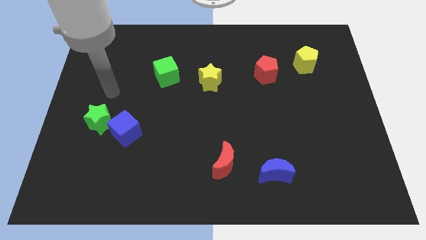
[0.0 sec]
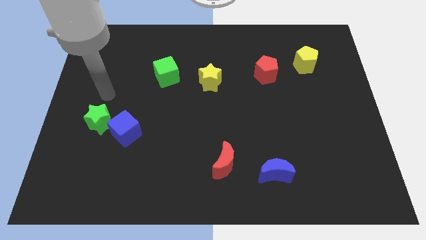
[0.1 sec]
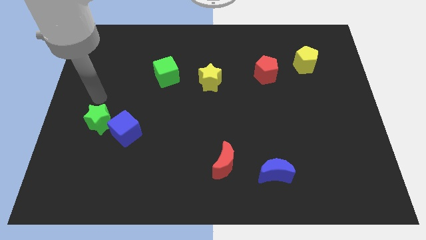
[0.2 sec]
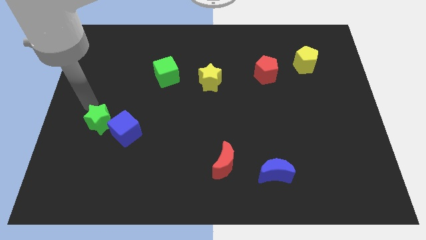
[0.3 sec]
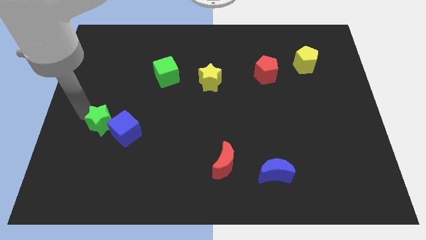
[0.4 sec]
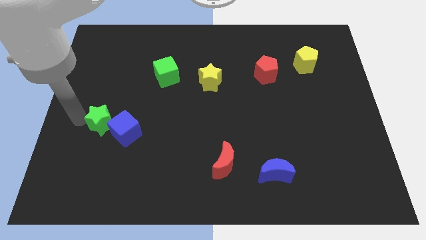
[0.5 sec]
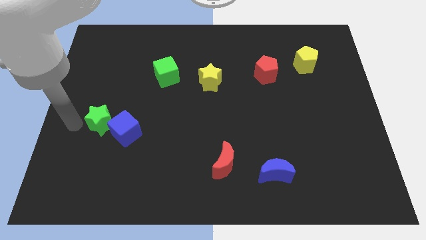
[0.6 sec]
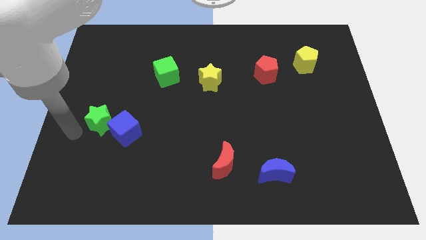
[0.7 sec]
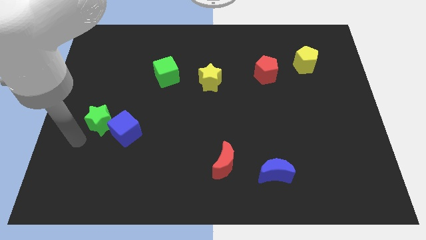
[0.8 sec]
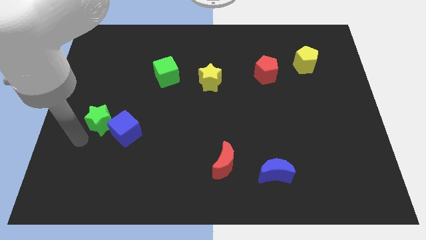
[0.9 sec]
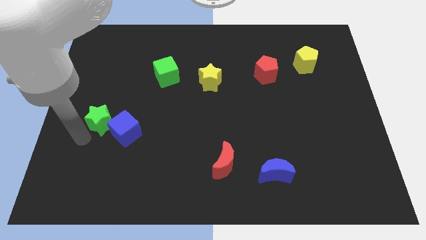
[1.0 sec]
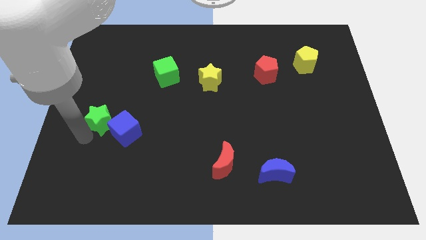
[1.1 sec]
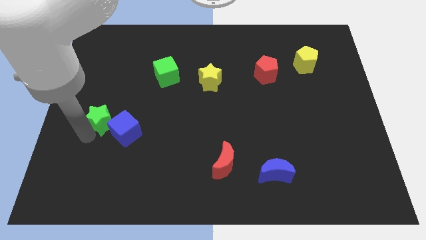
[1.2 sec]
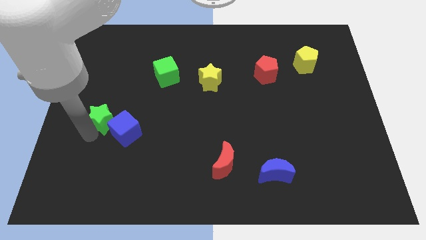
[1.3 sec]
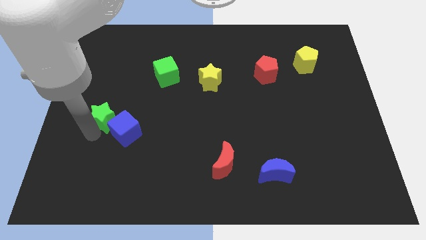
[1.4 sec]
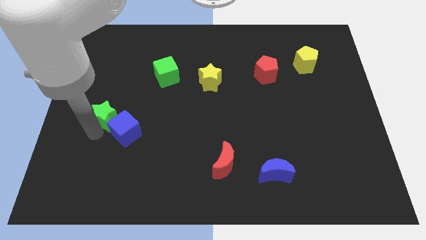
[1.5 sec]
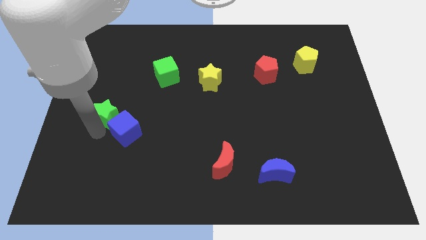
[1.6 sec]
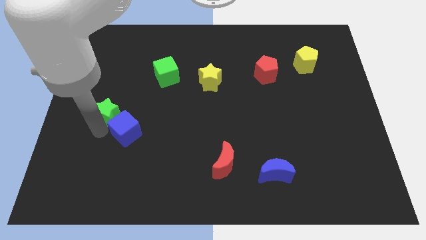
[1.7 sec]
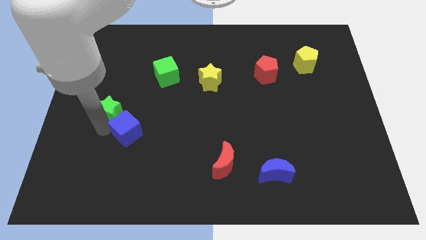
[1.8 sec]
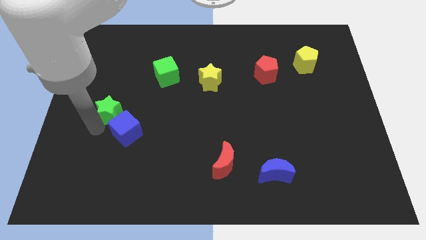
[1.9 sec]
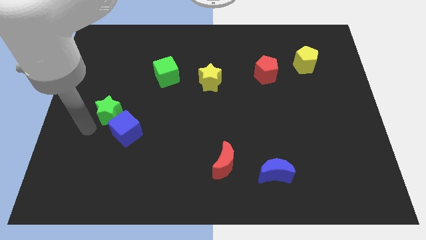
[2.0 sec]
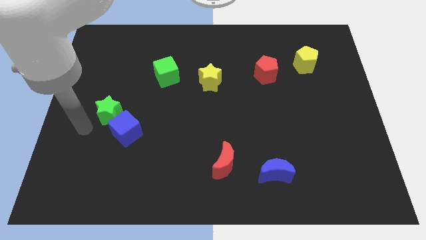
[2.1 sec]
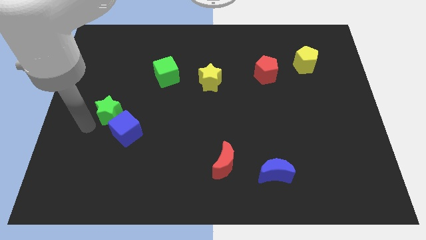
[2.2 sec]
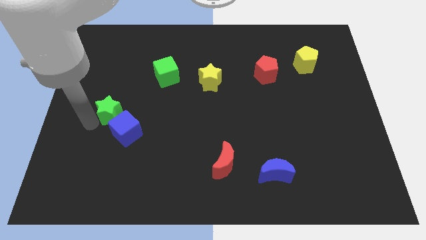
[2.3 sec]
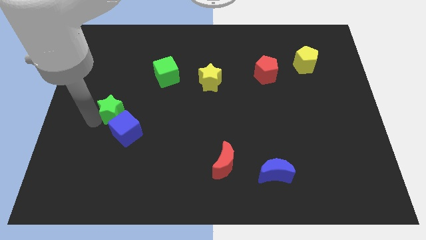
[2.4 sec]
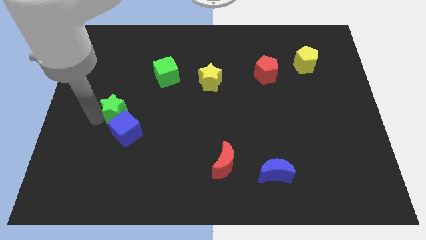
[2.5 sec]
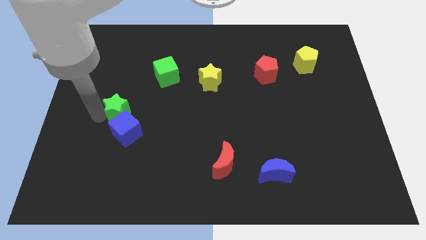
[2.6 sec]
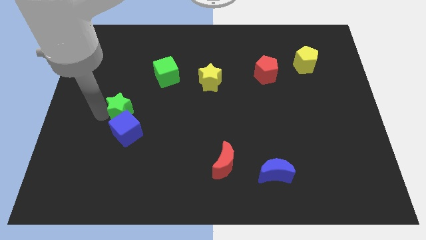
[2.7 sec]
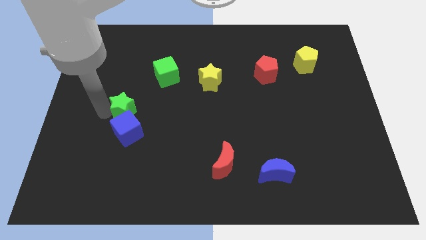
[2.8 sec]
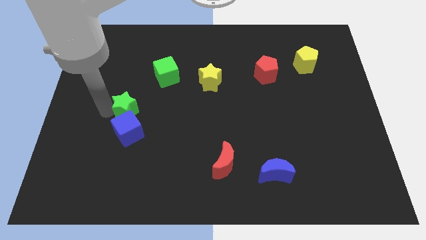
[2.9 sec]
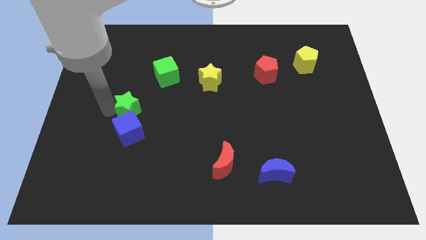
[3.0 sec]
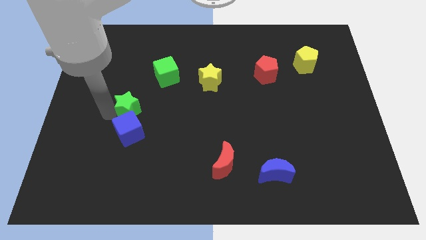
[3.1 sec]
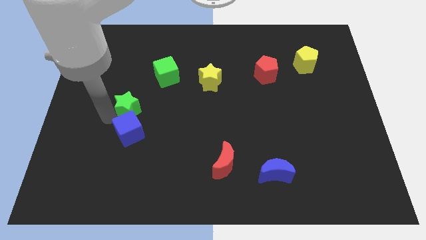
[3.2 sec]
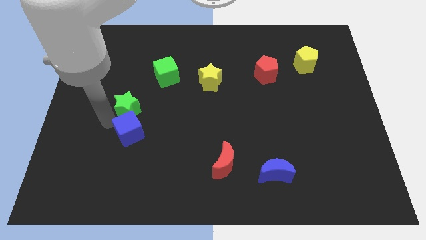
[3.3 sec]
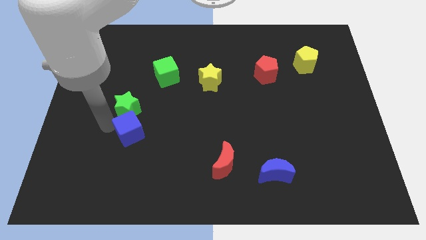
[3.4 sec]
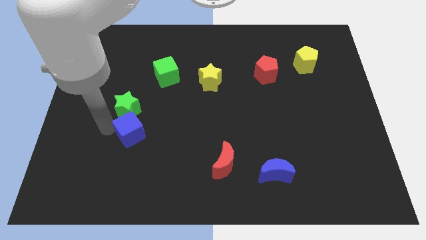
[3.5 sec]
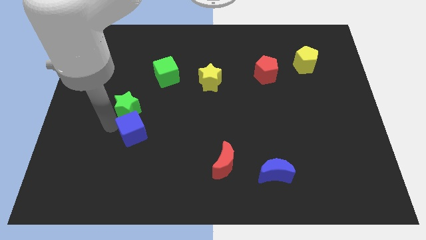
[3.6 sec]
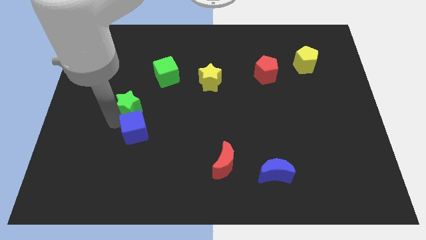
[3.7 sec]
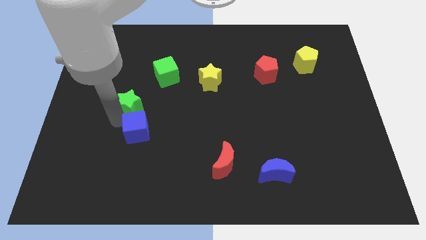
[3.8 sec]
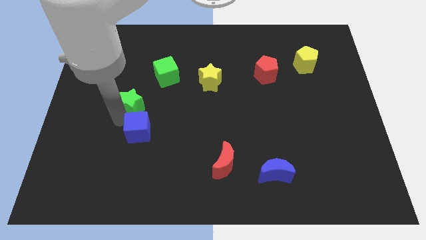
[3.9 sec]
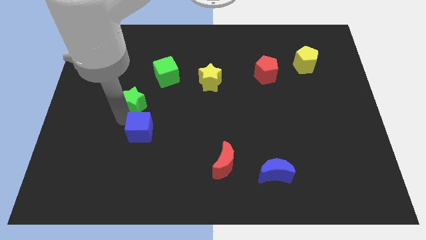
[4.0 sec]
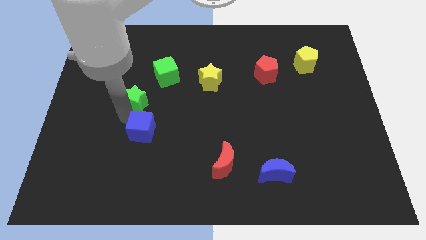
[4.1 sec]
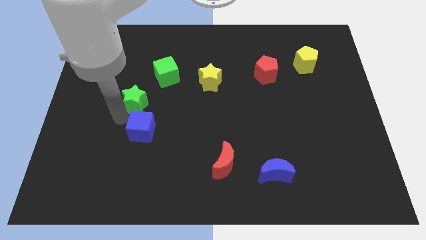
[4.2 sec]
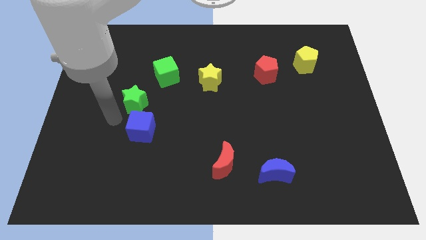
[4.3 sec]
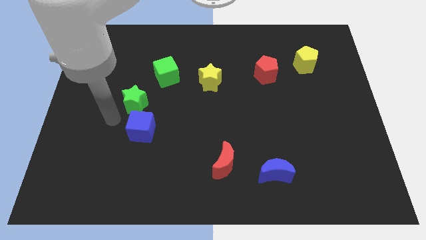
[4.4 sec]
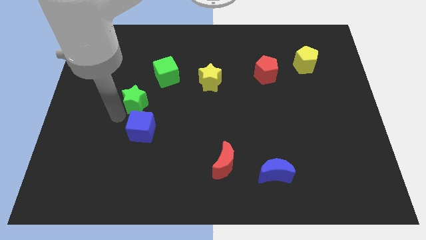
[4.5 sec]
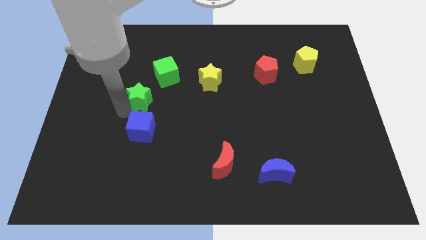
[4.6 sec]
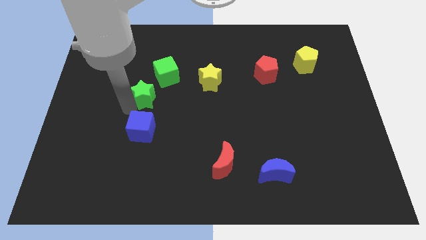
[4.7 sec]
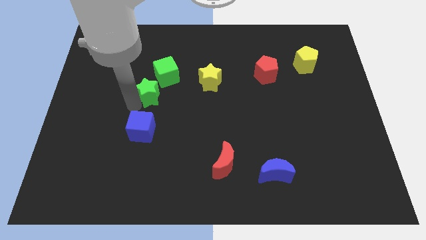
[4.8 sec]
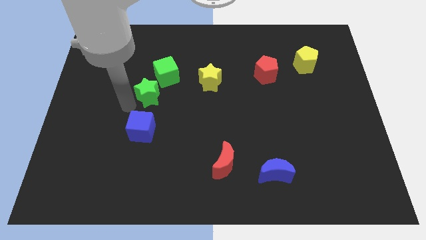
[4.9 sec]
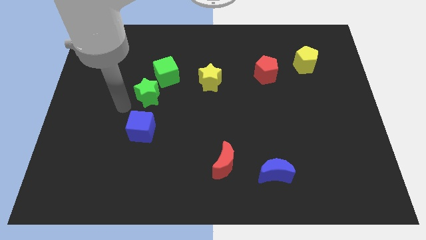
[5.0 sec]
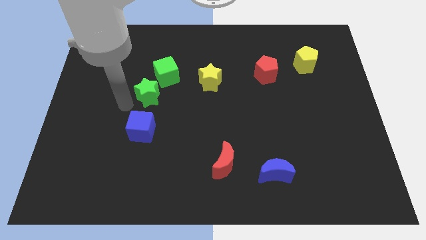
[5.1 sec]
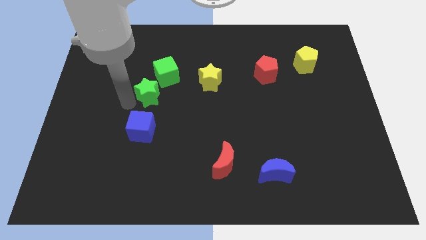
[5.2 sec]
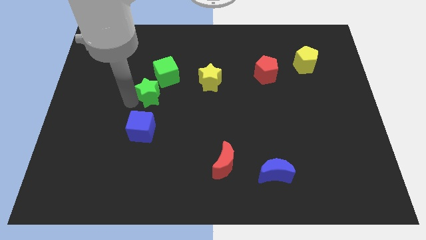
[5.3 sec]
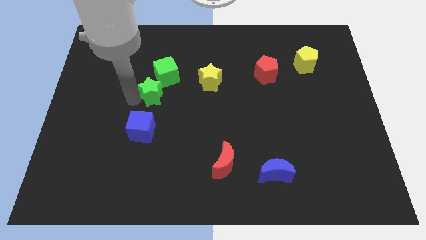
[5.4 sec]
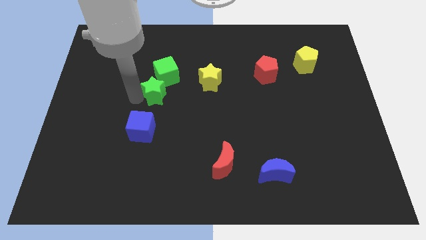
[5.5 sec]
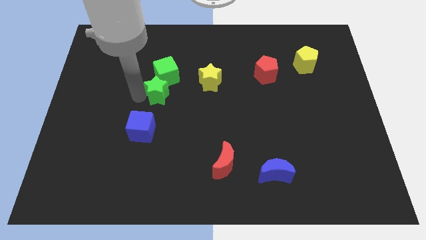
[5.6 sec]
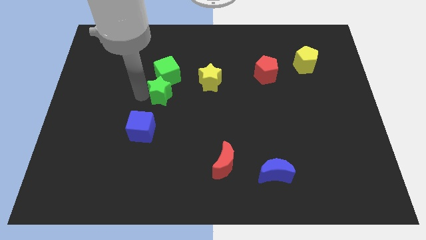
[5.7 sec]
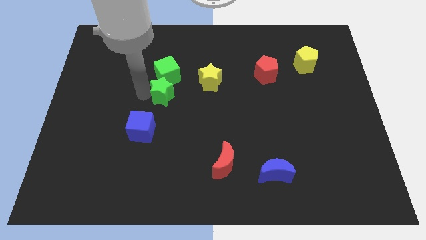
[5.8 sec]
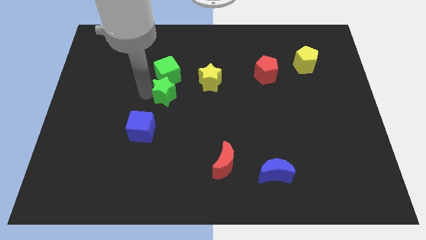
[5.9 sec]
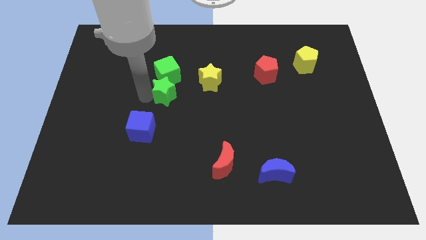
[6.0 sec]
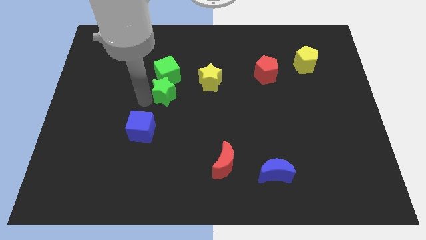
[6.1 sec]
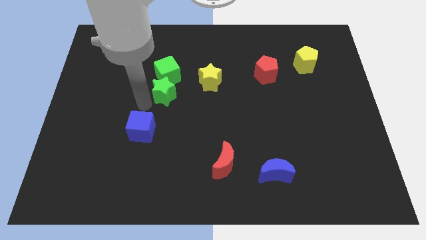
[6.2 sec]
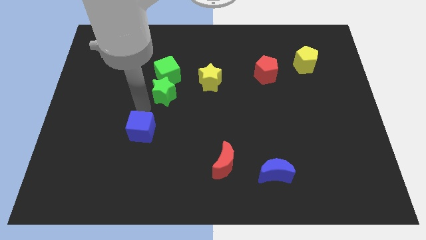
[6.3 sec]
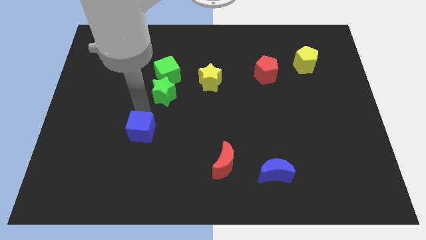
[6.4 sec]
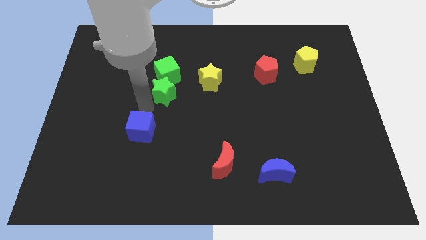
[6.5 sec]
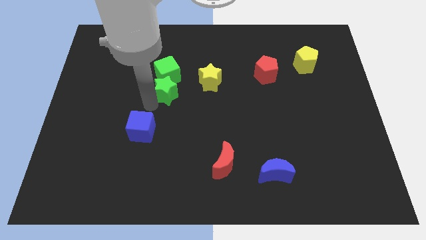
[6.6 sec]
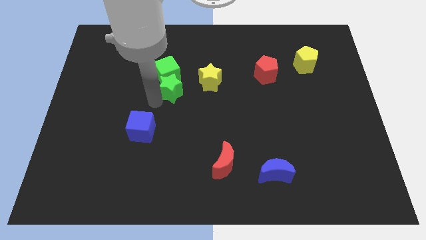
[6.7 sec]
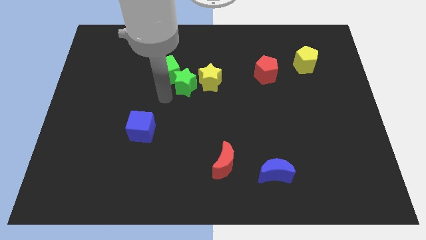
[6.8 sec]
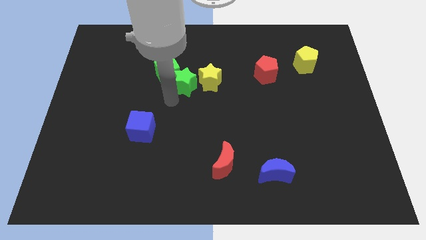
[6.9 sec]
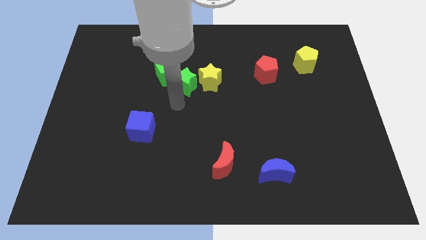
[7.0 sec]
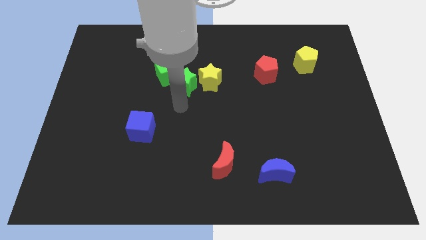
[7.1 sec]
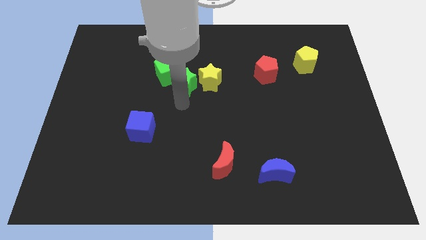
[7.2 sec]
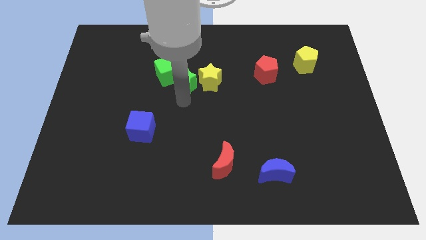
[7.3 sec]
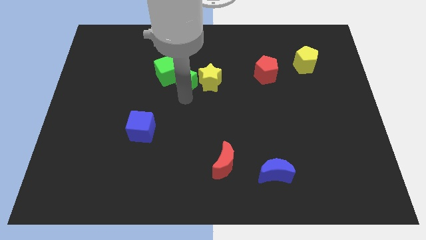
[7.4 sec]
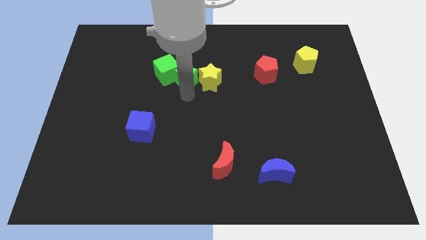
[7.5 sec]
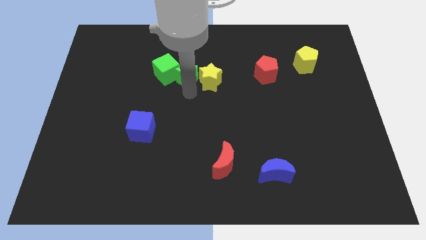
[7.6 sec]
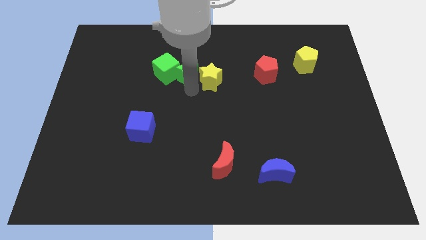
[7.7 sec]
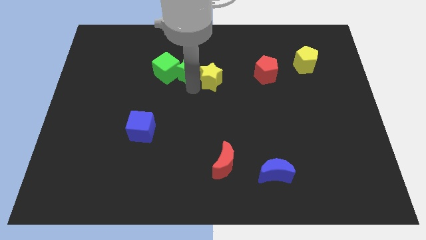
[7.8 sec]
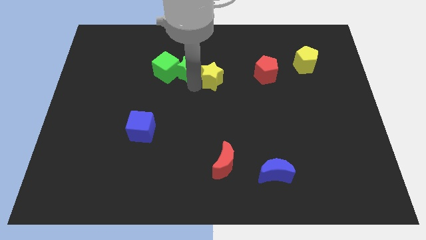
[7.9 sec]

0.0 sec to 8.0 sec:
slide the green star to the top right of the green cube

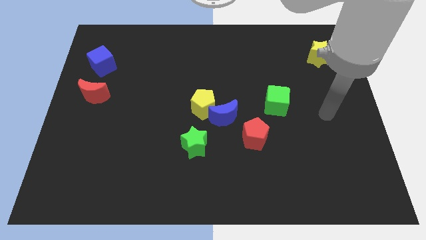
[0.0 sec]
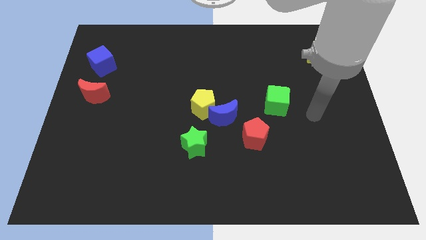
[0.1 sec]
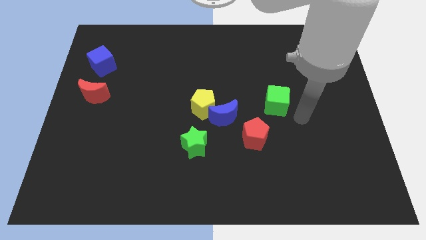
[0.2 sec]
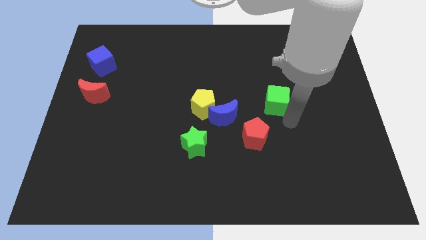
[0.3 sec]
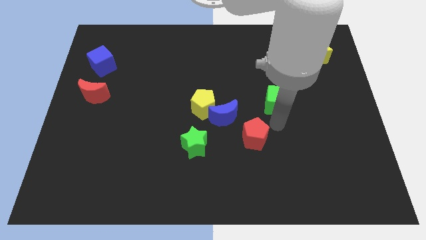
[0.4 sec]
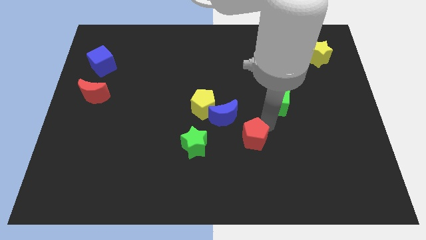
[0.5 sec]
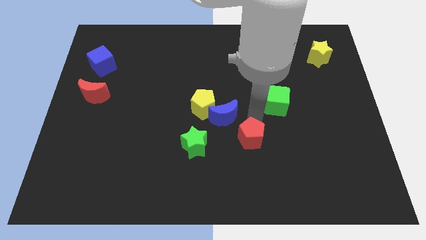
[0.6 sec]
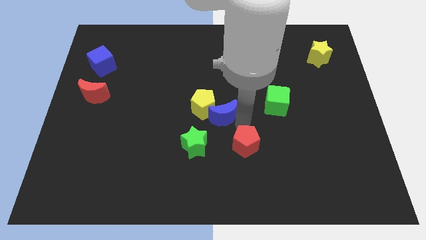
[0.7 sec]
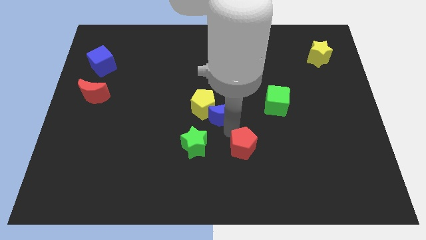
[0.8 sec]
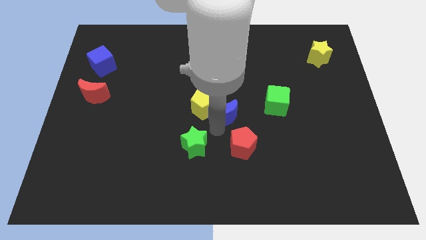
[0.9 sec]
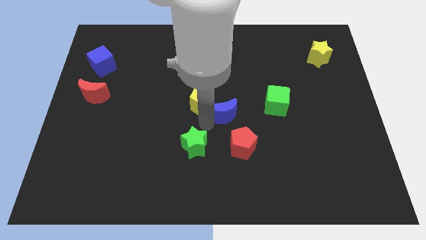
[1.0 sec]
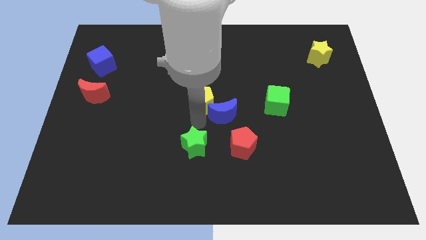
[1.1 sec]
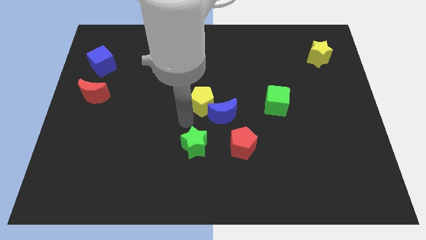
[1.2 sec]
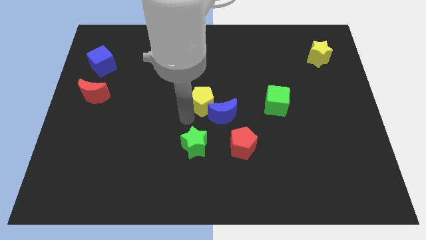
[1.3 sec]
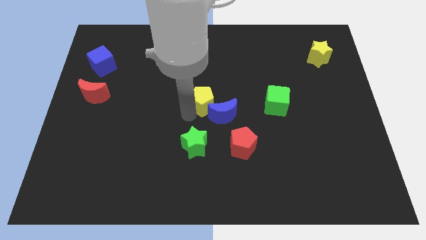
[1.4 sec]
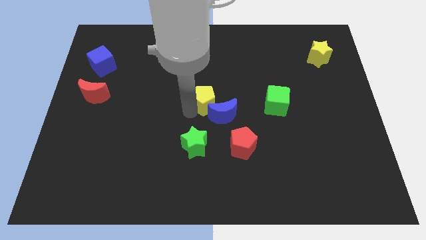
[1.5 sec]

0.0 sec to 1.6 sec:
slide the yellow pentagon to the top of the blue moon
